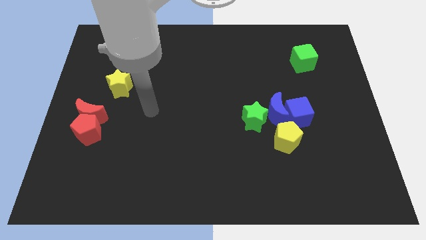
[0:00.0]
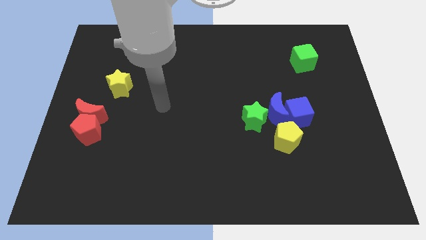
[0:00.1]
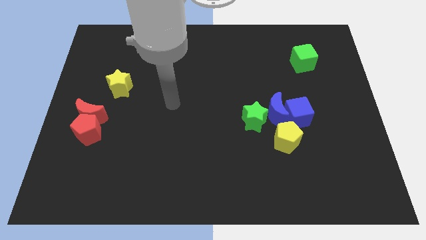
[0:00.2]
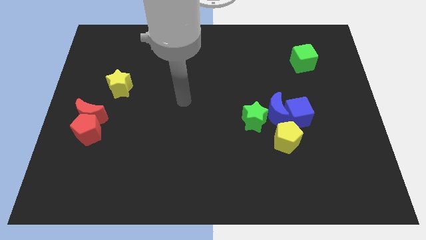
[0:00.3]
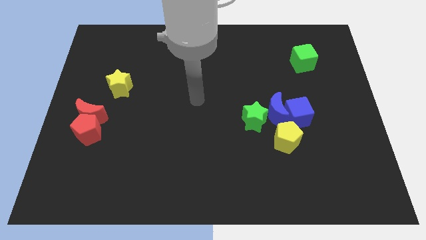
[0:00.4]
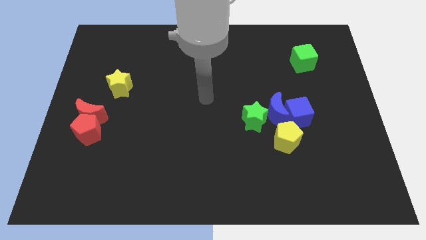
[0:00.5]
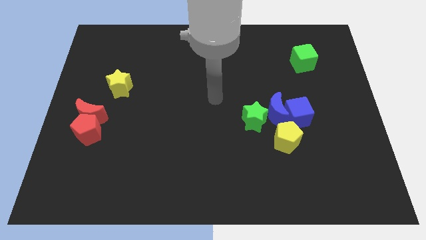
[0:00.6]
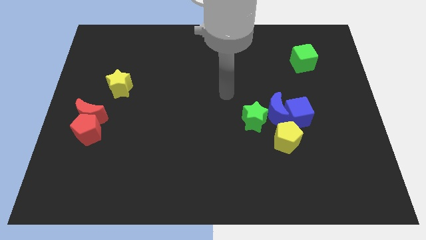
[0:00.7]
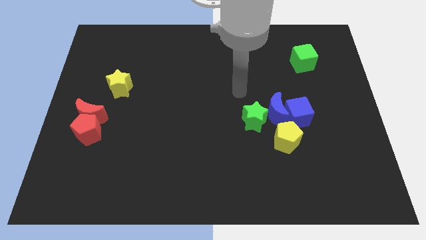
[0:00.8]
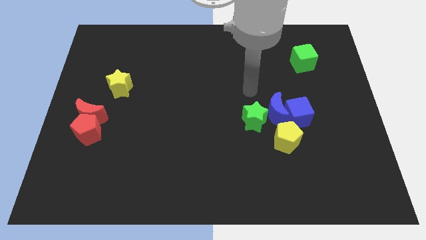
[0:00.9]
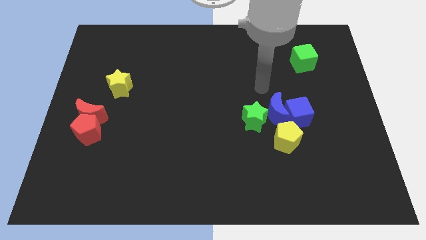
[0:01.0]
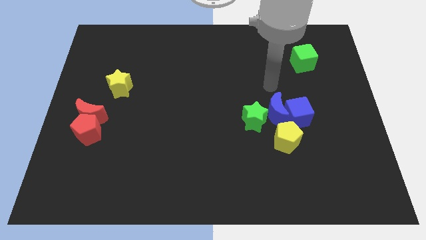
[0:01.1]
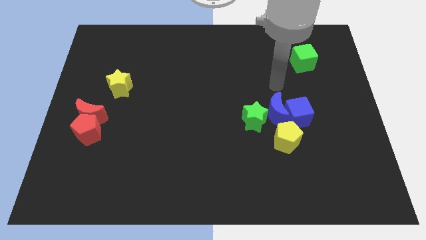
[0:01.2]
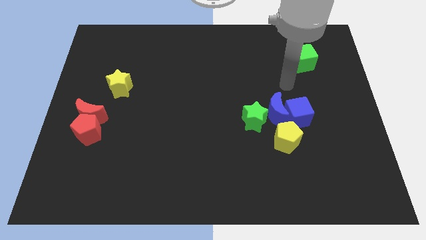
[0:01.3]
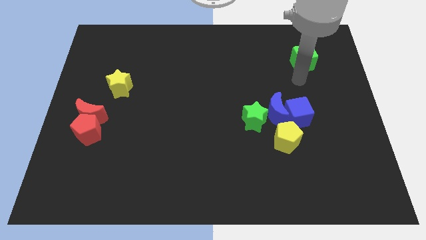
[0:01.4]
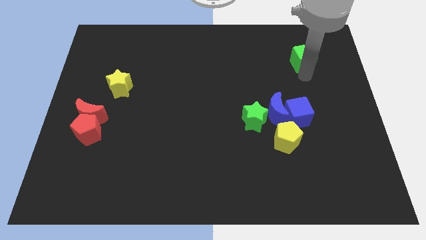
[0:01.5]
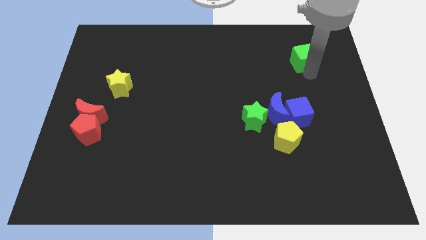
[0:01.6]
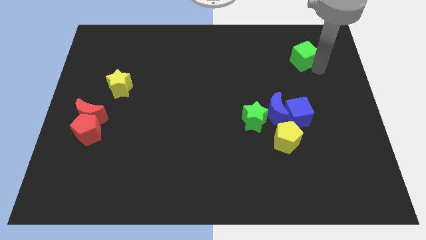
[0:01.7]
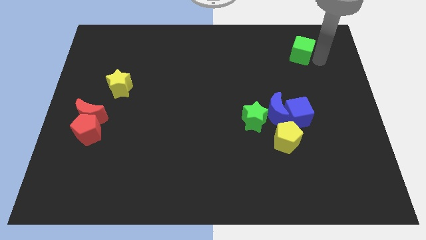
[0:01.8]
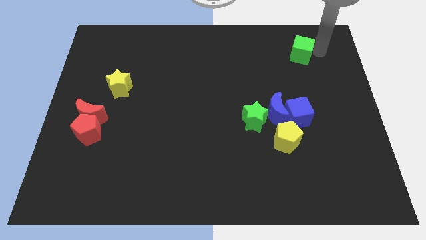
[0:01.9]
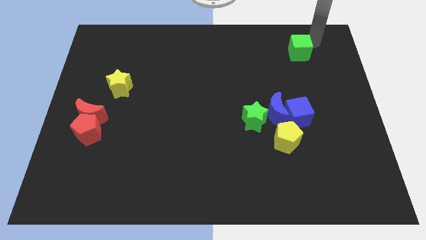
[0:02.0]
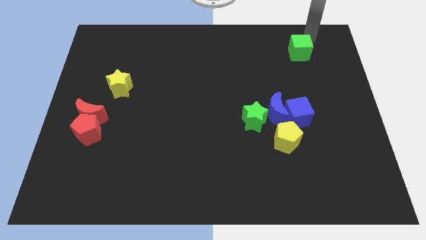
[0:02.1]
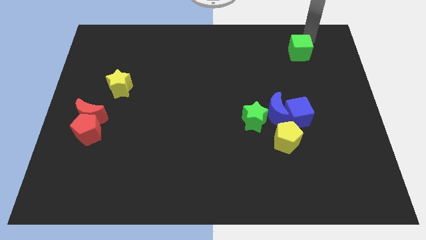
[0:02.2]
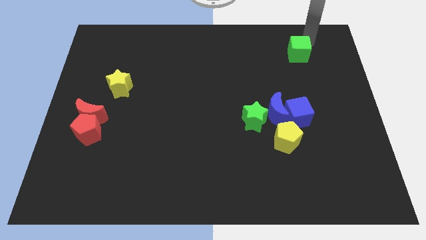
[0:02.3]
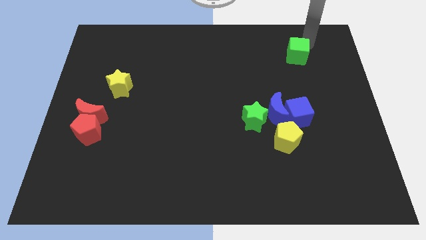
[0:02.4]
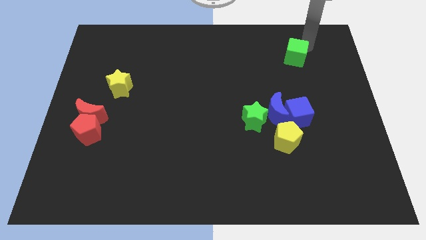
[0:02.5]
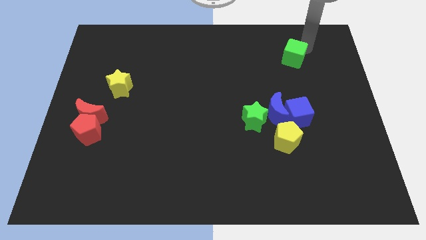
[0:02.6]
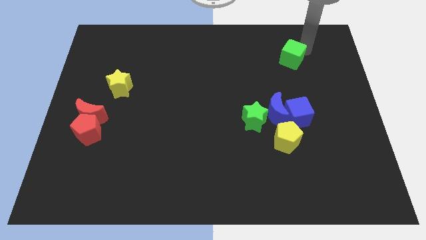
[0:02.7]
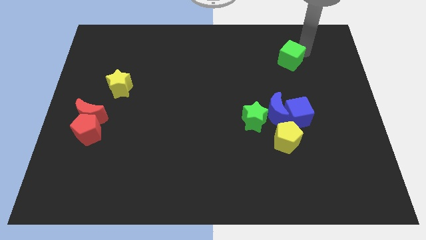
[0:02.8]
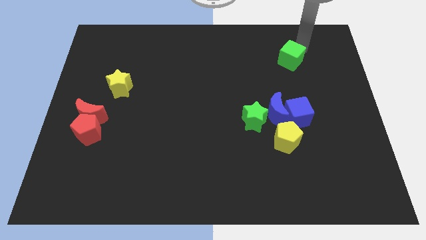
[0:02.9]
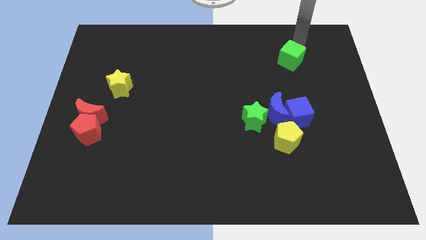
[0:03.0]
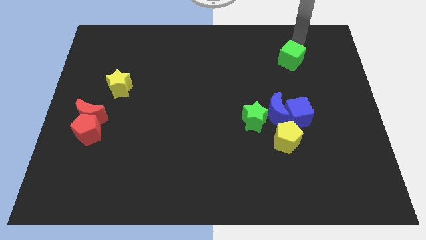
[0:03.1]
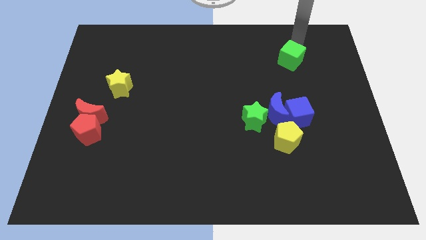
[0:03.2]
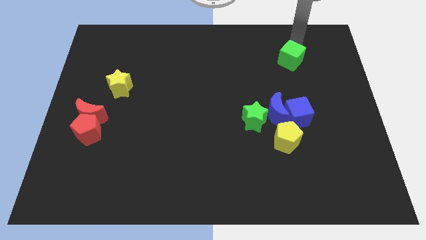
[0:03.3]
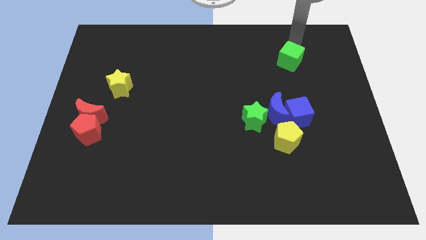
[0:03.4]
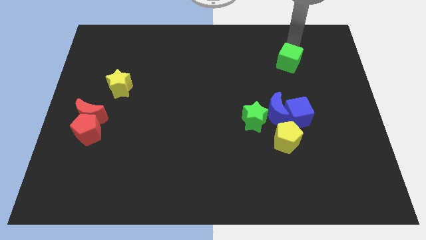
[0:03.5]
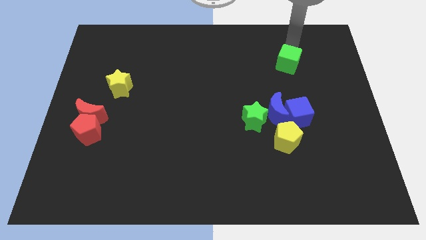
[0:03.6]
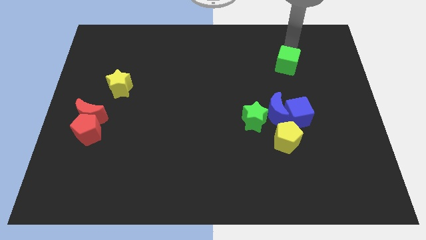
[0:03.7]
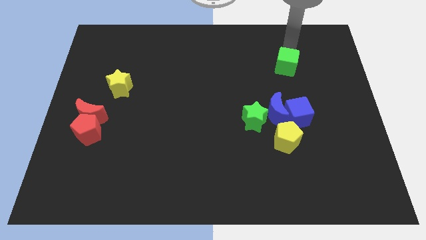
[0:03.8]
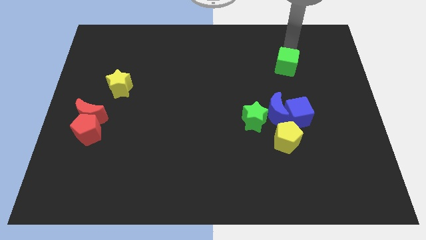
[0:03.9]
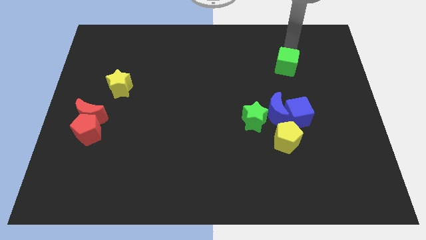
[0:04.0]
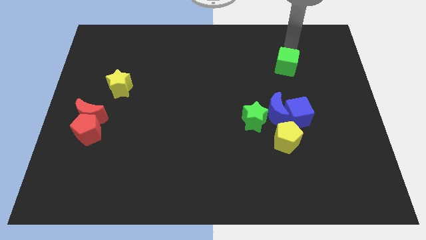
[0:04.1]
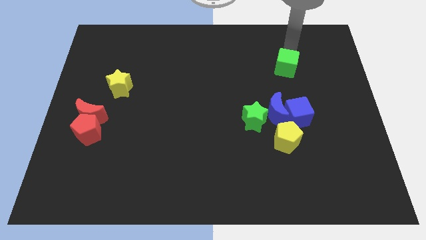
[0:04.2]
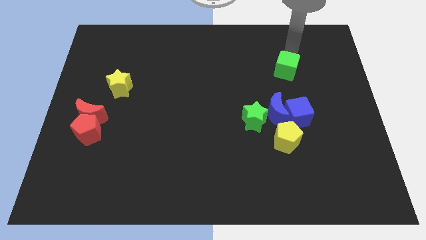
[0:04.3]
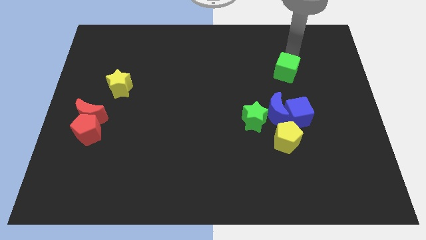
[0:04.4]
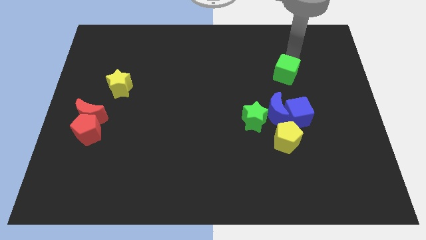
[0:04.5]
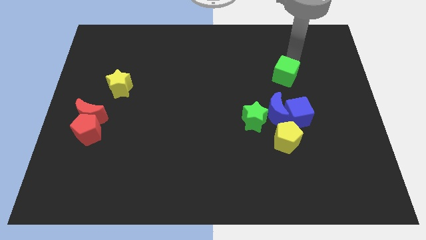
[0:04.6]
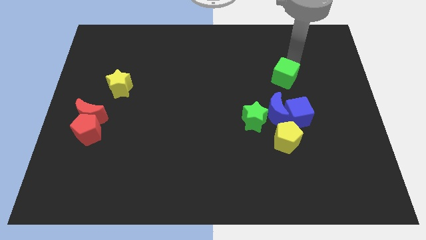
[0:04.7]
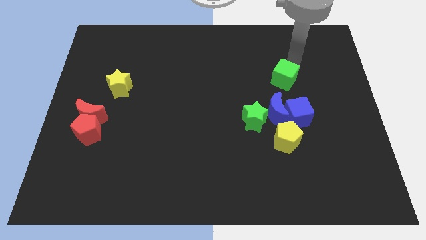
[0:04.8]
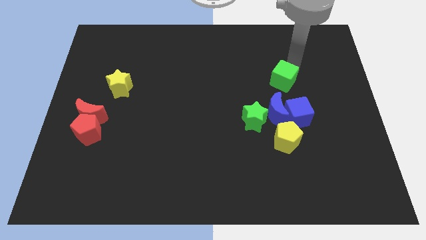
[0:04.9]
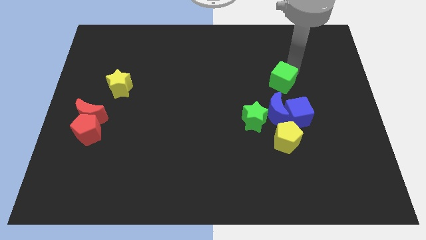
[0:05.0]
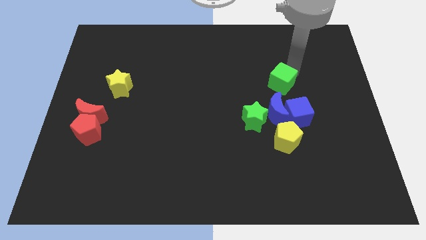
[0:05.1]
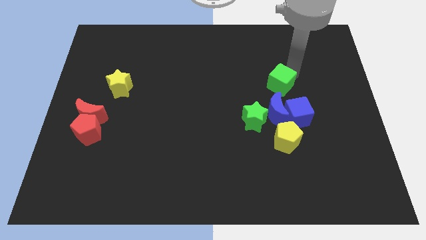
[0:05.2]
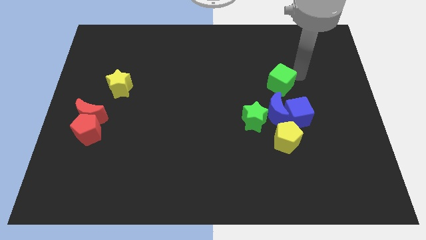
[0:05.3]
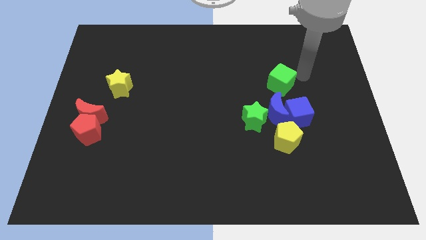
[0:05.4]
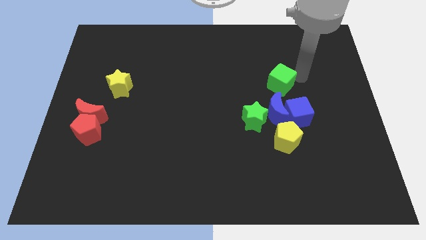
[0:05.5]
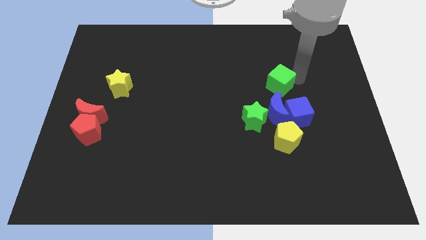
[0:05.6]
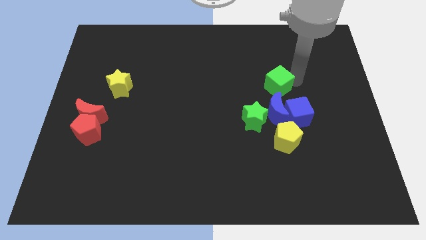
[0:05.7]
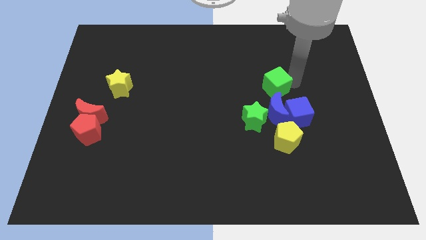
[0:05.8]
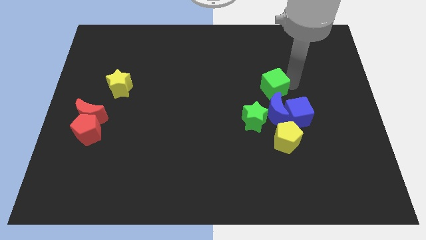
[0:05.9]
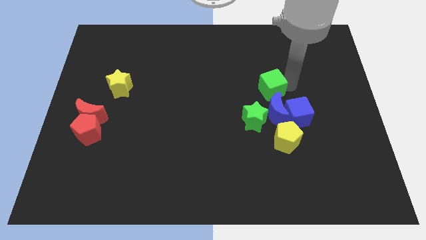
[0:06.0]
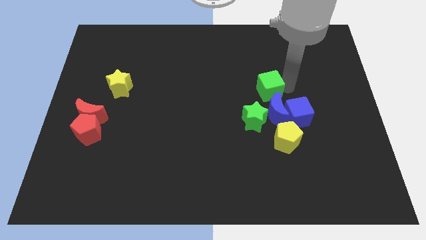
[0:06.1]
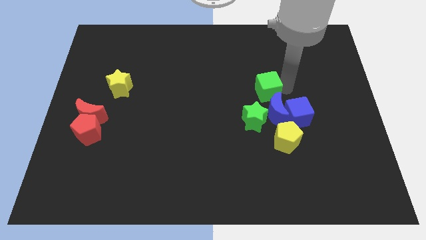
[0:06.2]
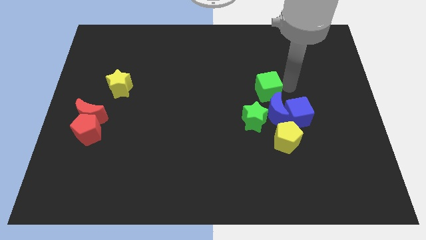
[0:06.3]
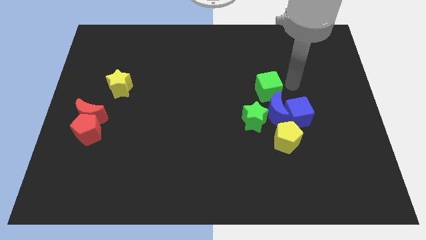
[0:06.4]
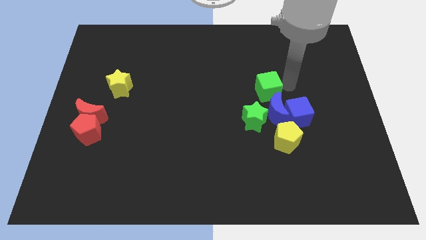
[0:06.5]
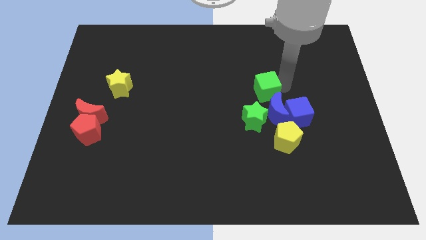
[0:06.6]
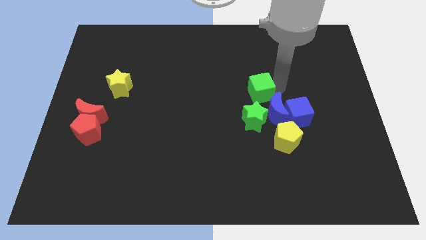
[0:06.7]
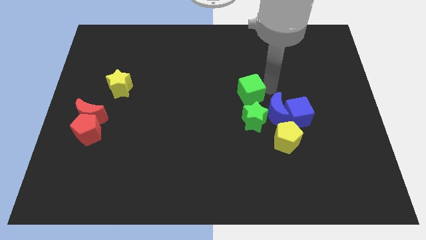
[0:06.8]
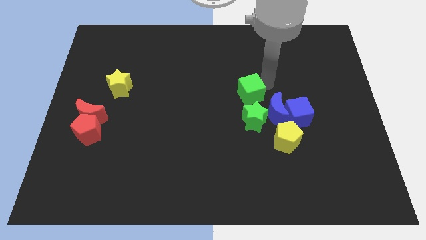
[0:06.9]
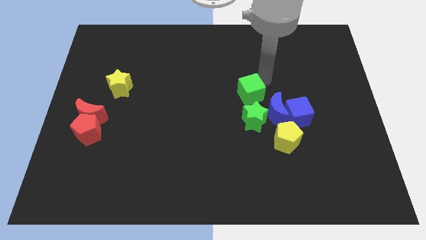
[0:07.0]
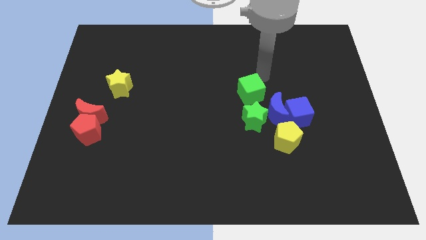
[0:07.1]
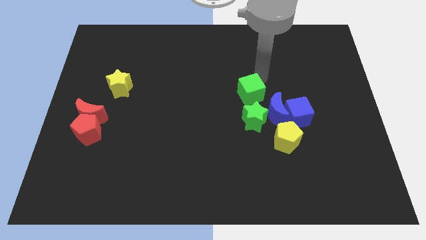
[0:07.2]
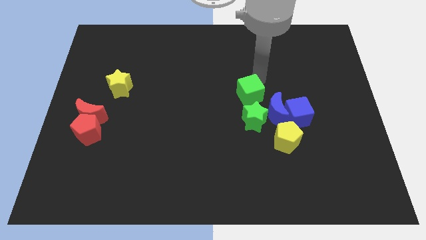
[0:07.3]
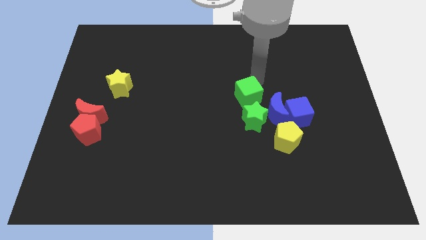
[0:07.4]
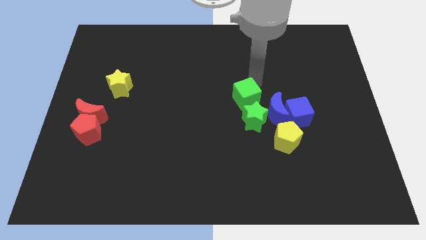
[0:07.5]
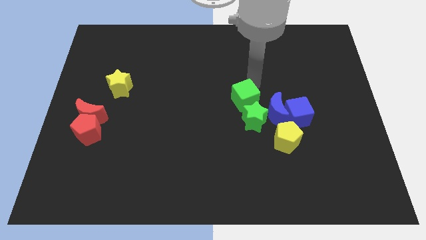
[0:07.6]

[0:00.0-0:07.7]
move the green cube downwards and left diagonally

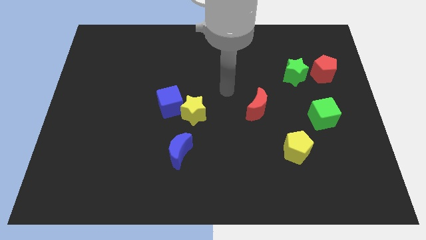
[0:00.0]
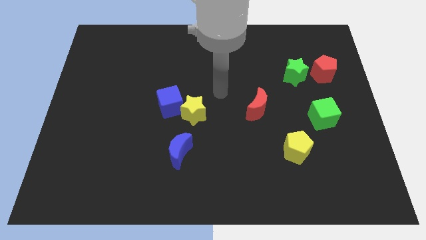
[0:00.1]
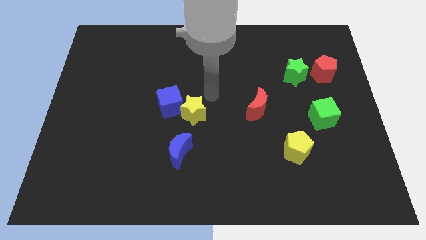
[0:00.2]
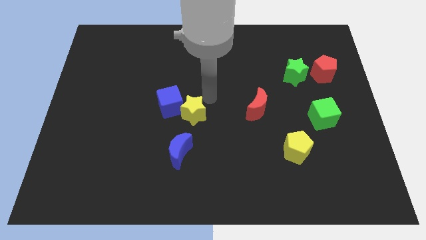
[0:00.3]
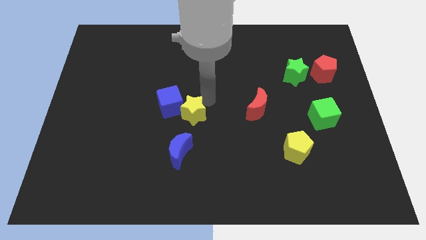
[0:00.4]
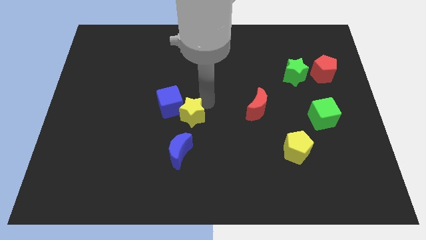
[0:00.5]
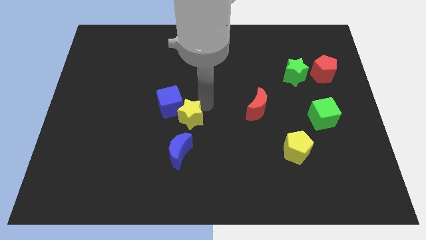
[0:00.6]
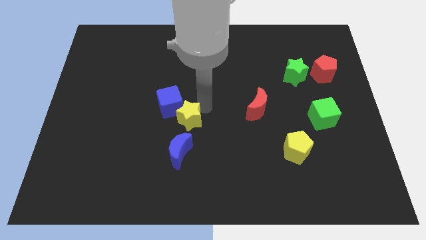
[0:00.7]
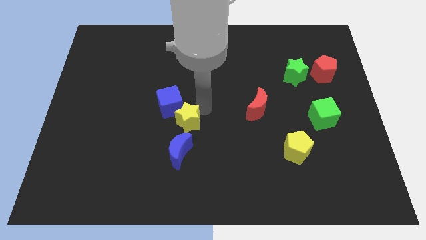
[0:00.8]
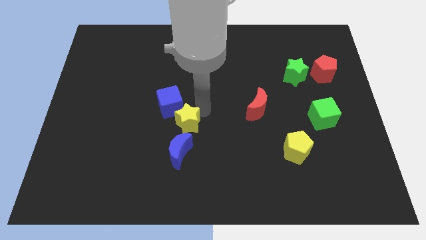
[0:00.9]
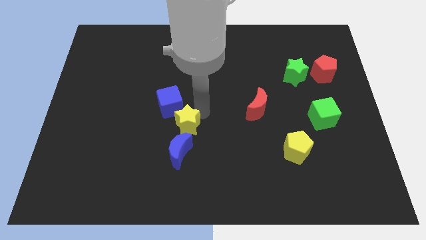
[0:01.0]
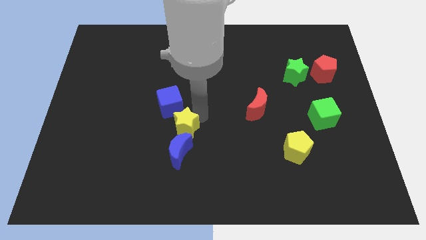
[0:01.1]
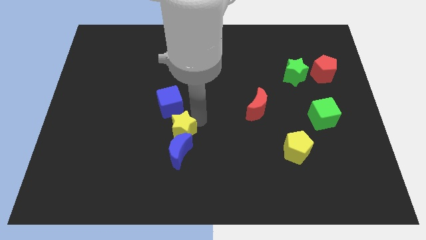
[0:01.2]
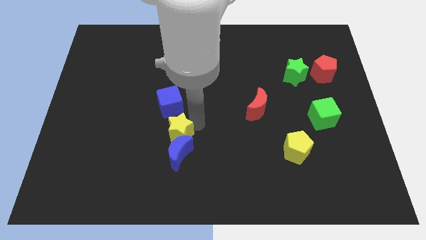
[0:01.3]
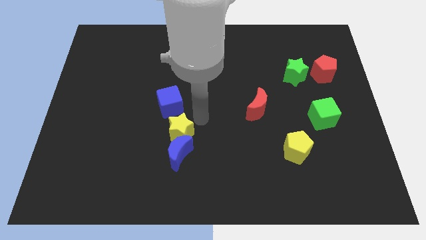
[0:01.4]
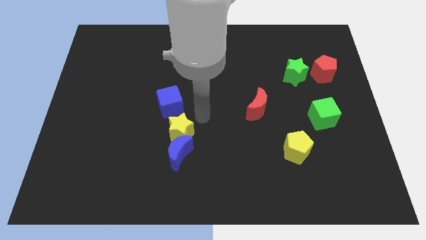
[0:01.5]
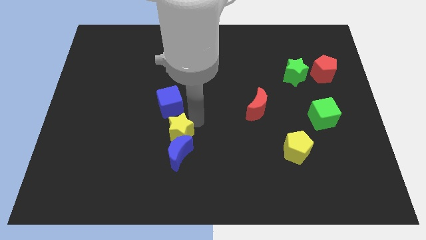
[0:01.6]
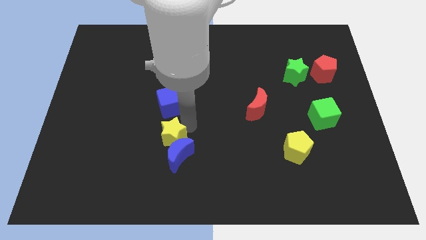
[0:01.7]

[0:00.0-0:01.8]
slightly move the yellow star diagonally down and left
